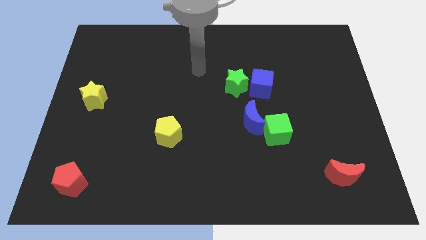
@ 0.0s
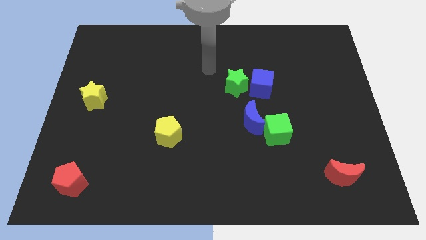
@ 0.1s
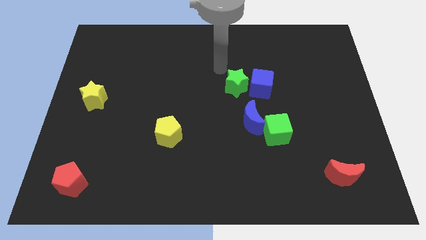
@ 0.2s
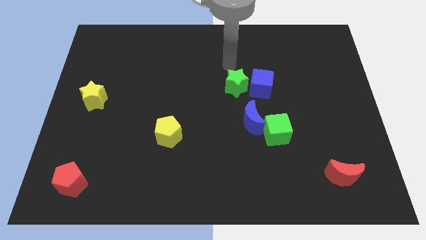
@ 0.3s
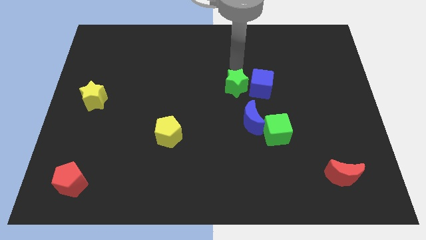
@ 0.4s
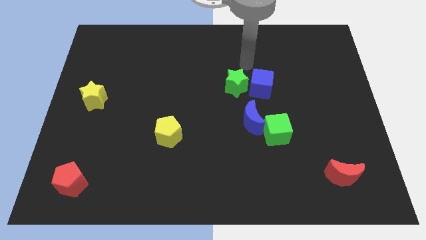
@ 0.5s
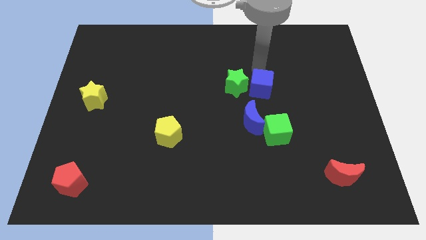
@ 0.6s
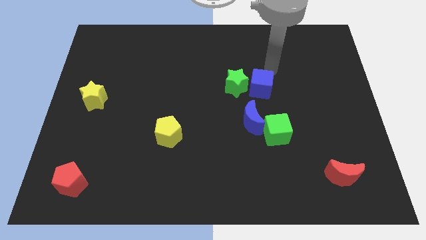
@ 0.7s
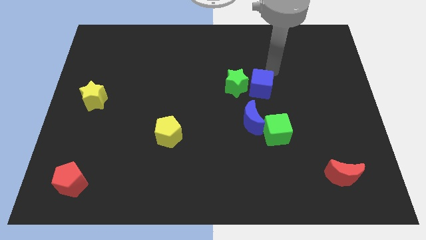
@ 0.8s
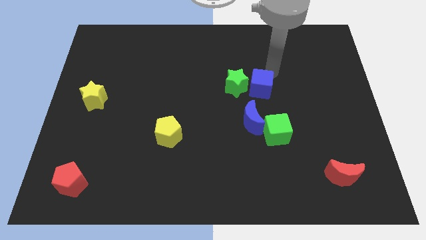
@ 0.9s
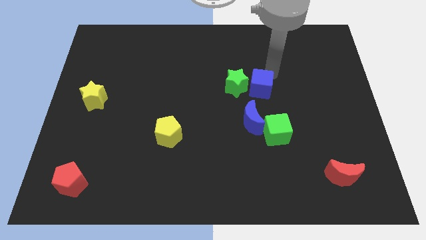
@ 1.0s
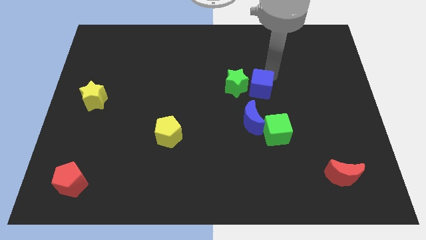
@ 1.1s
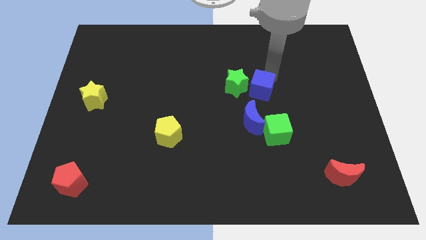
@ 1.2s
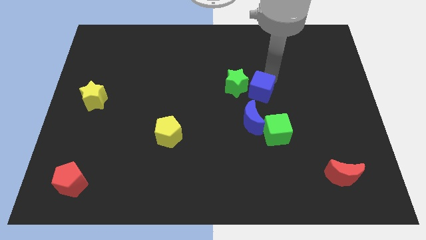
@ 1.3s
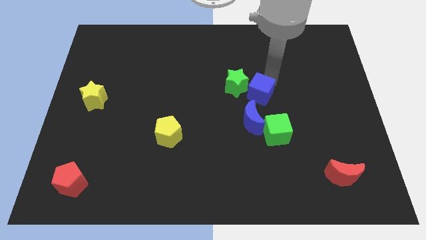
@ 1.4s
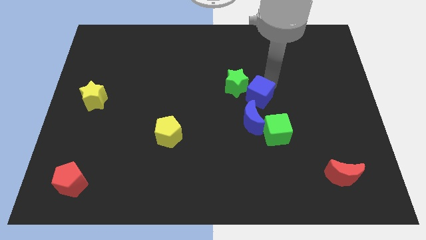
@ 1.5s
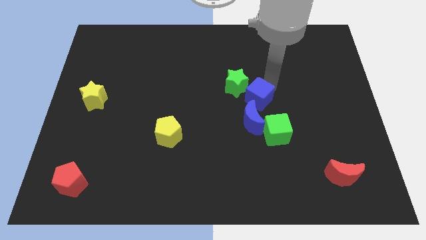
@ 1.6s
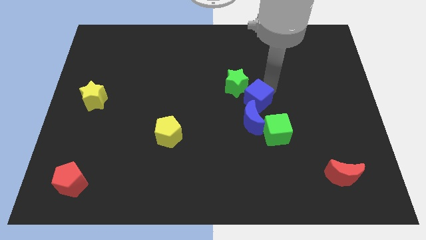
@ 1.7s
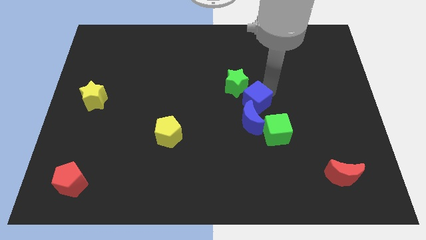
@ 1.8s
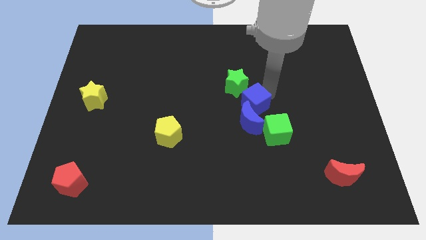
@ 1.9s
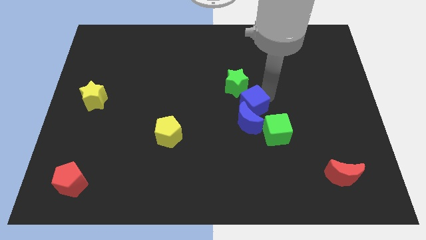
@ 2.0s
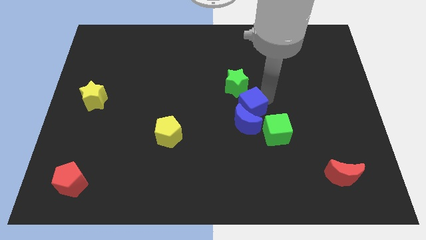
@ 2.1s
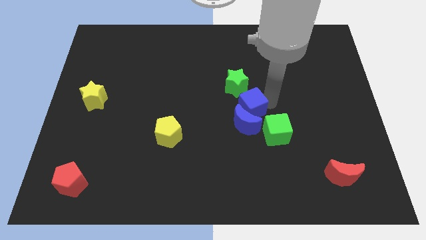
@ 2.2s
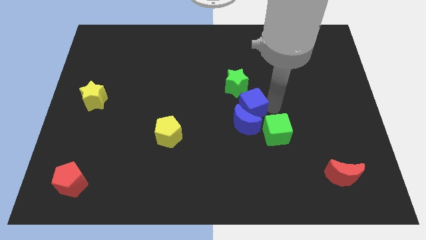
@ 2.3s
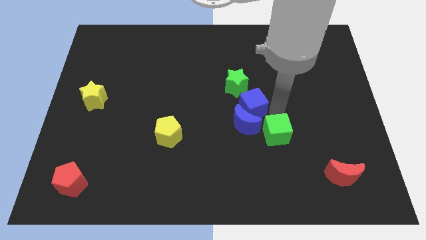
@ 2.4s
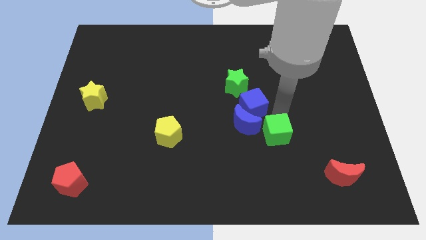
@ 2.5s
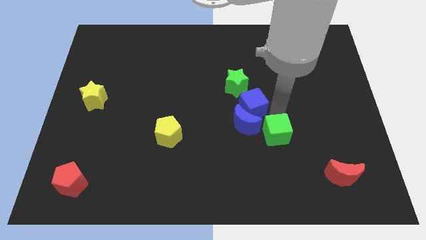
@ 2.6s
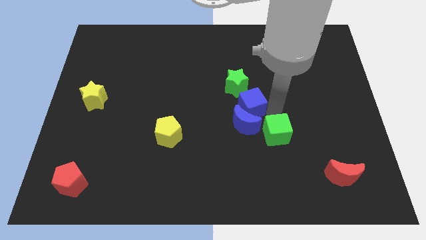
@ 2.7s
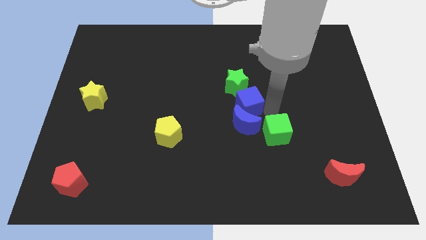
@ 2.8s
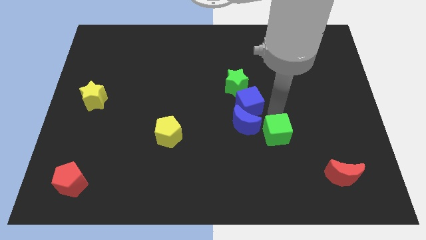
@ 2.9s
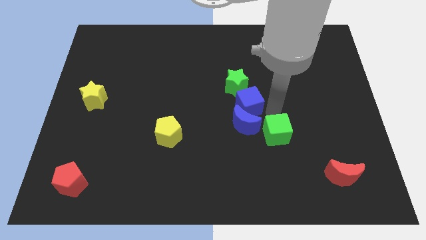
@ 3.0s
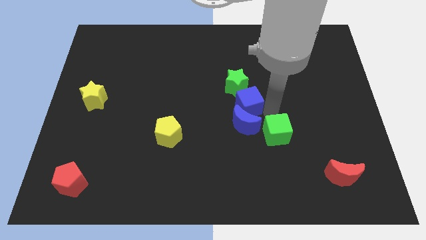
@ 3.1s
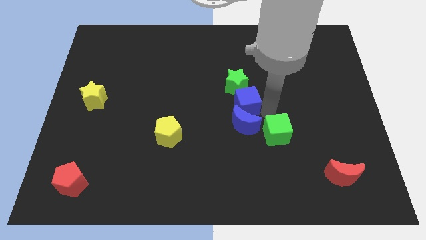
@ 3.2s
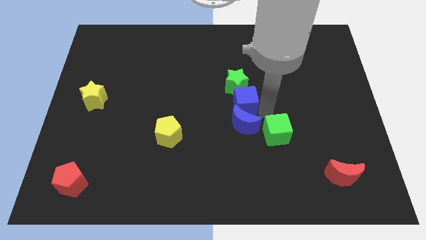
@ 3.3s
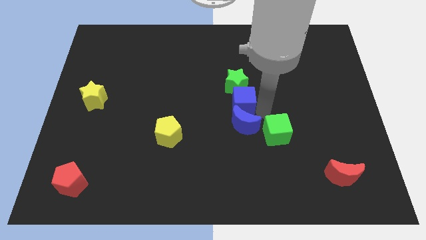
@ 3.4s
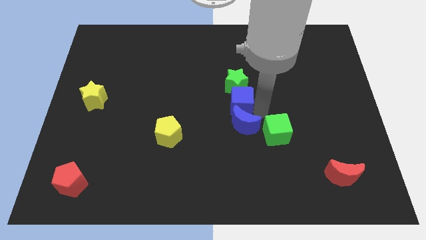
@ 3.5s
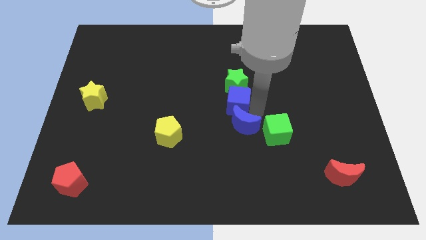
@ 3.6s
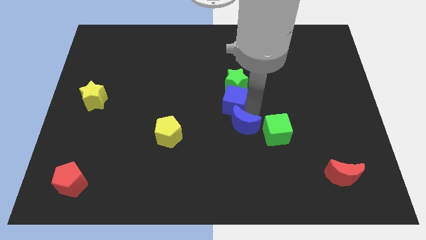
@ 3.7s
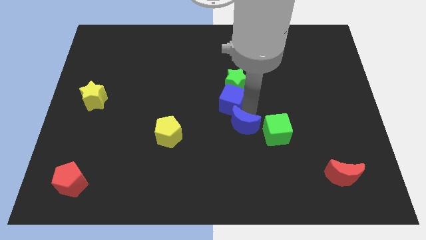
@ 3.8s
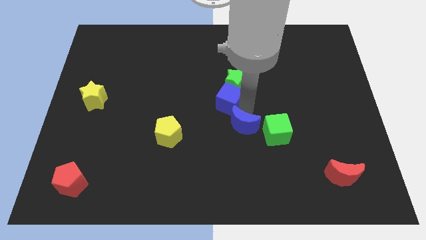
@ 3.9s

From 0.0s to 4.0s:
push the blue cube somewhat left

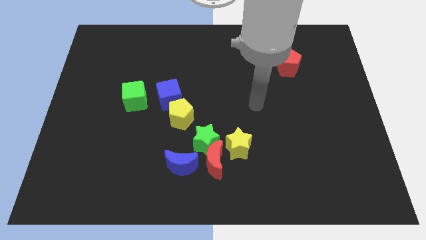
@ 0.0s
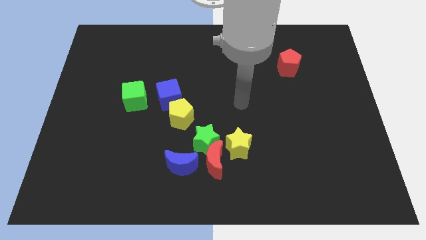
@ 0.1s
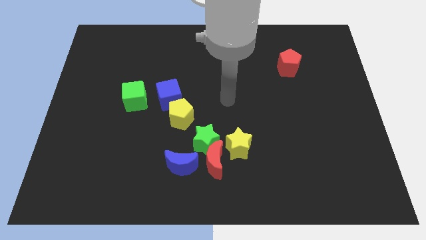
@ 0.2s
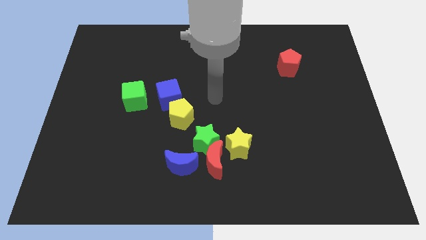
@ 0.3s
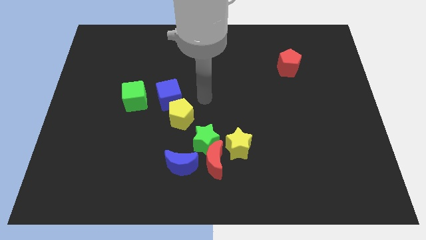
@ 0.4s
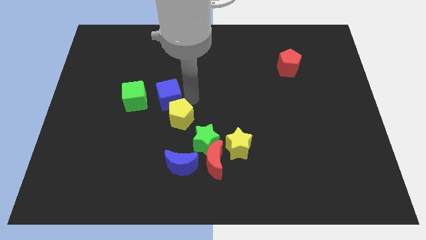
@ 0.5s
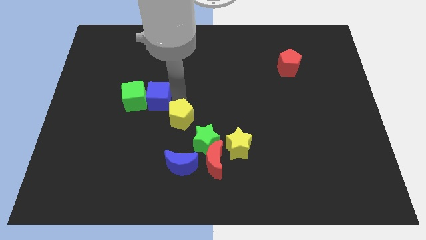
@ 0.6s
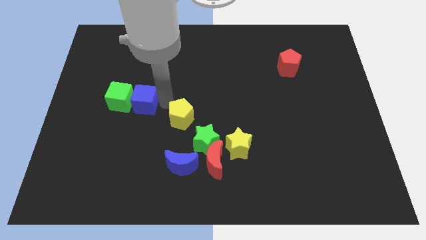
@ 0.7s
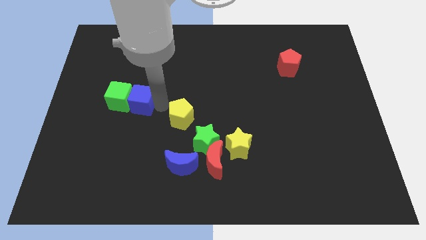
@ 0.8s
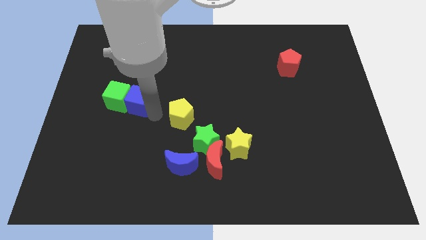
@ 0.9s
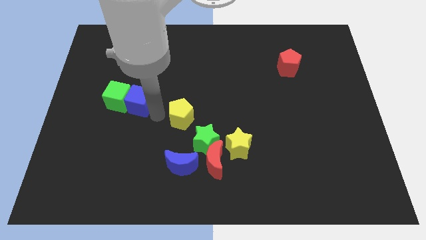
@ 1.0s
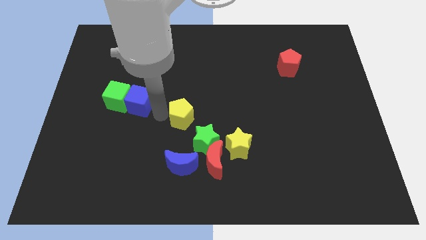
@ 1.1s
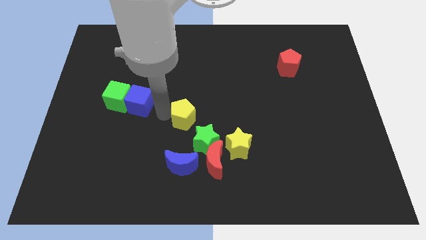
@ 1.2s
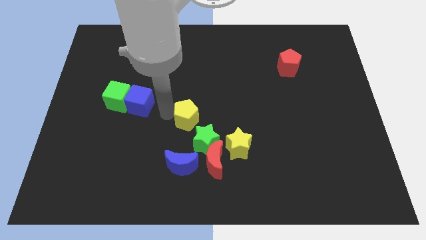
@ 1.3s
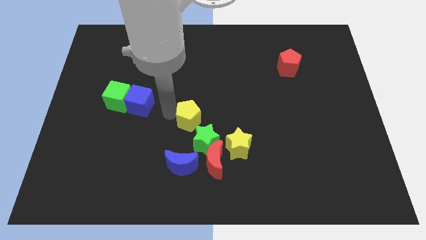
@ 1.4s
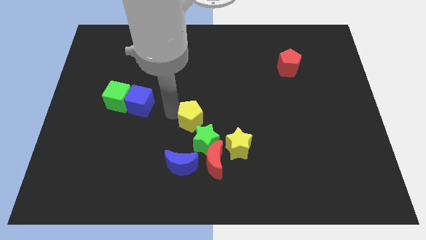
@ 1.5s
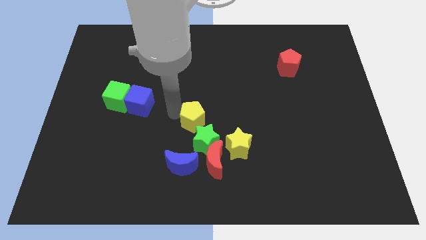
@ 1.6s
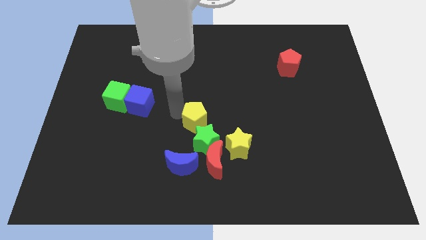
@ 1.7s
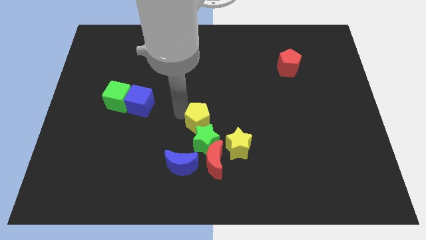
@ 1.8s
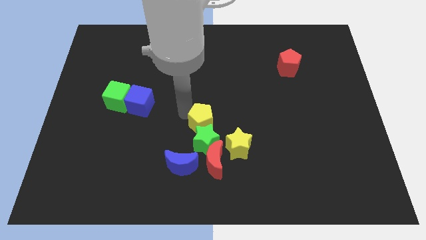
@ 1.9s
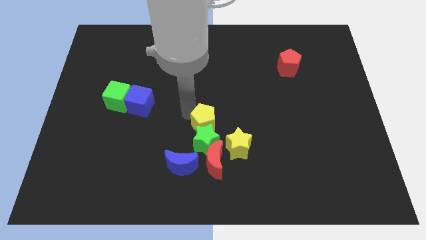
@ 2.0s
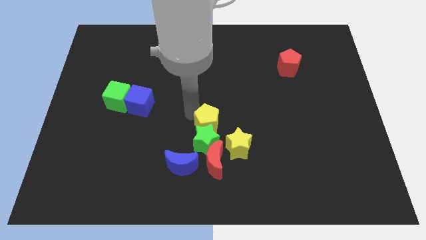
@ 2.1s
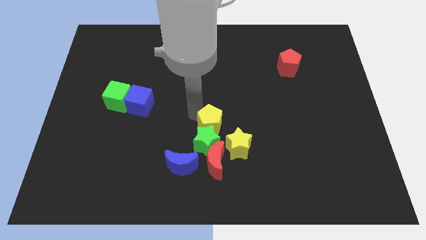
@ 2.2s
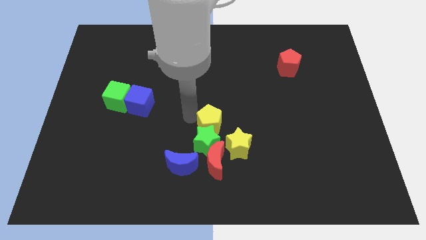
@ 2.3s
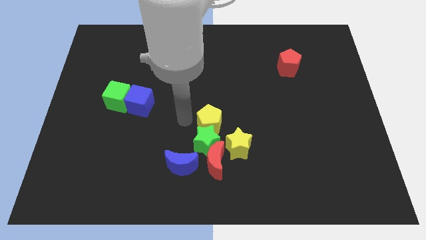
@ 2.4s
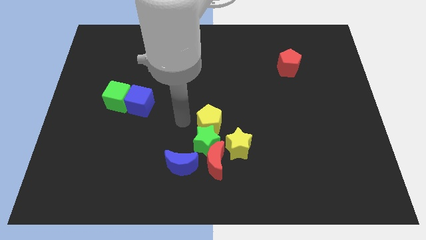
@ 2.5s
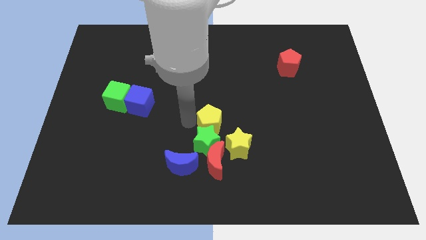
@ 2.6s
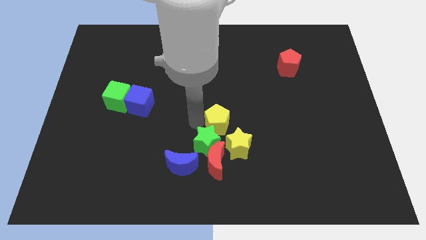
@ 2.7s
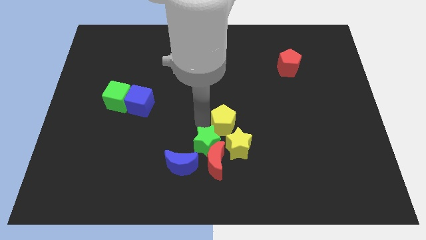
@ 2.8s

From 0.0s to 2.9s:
move the yellow pentagon a little down and to the right diagonally

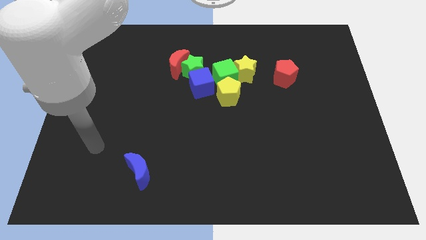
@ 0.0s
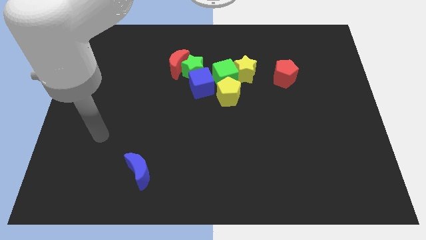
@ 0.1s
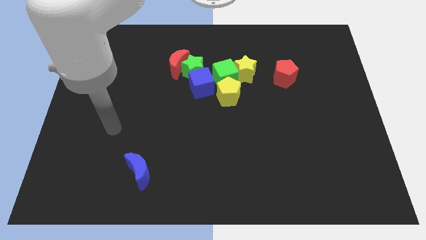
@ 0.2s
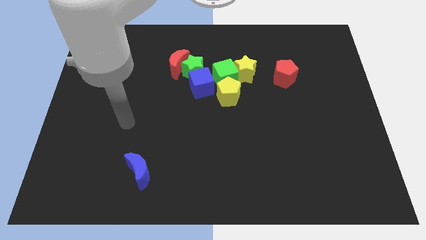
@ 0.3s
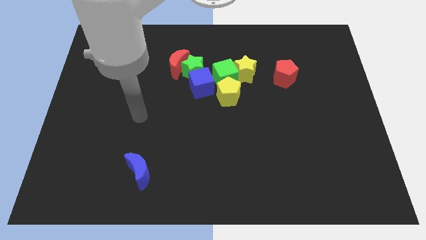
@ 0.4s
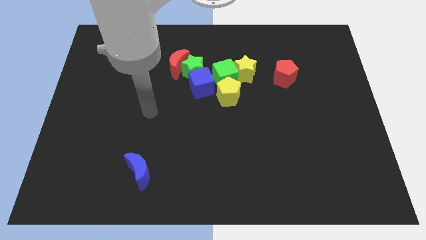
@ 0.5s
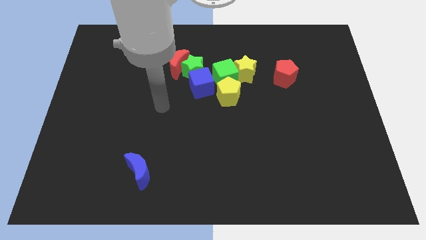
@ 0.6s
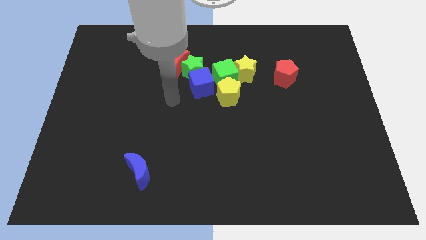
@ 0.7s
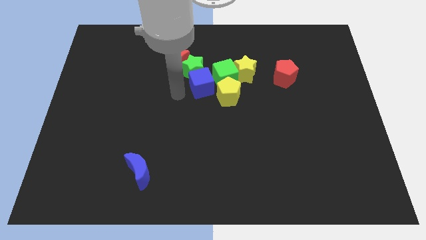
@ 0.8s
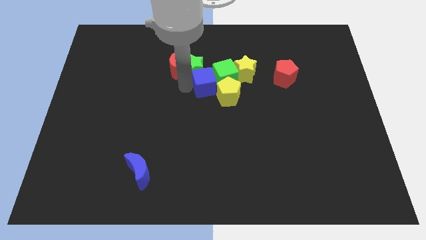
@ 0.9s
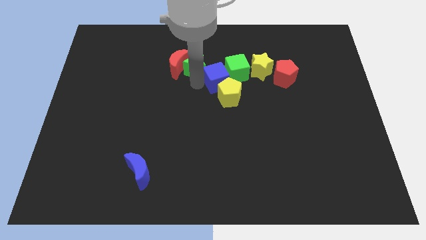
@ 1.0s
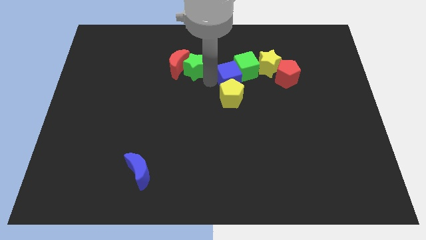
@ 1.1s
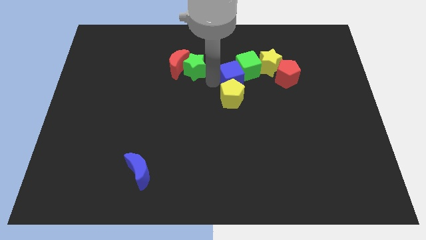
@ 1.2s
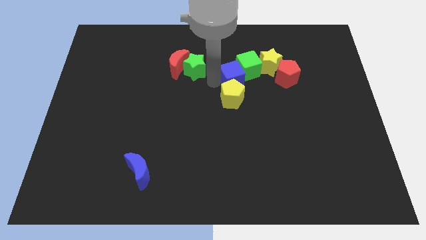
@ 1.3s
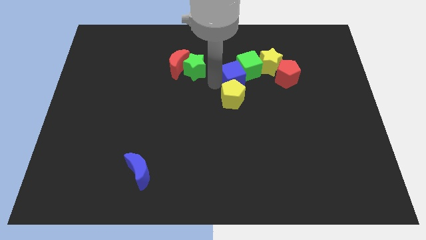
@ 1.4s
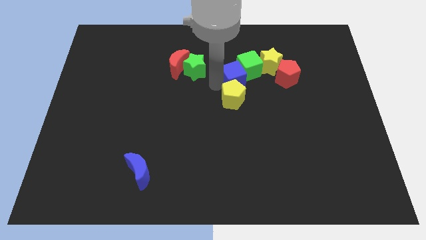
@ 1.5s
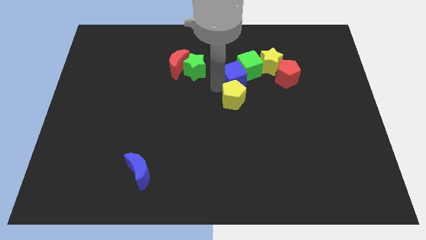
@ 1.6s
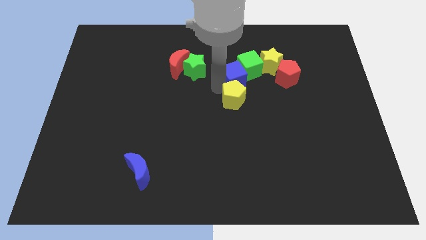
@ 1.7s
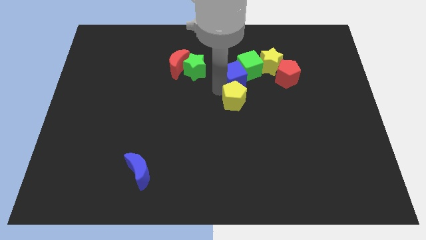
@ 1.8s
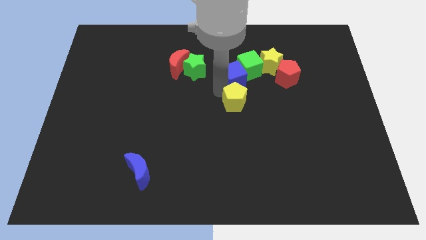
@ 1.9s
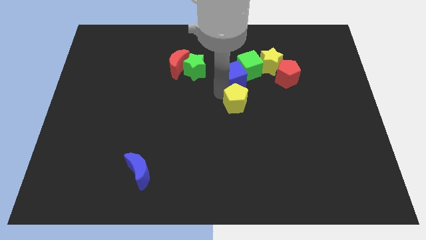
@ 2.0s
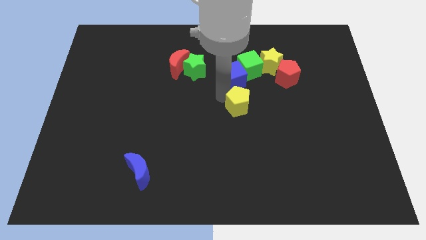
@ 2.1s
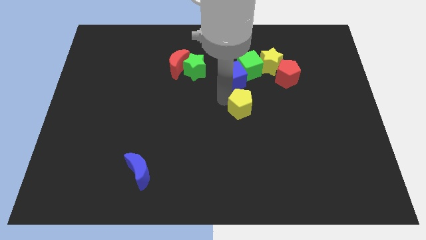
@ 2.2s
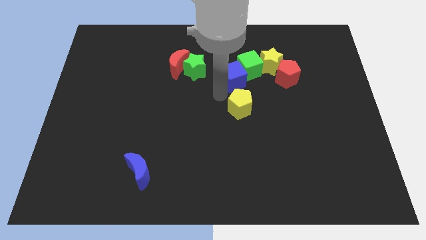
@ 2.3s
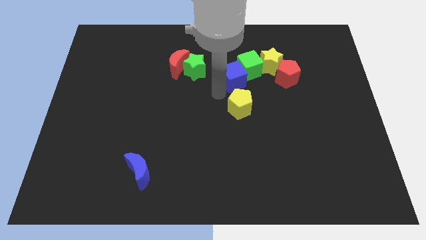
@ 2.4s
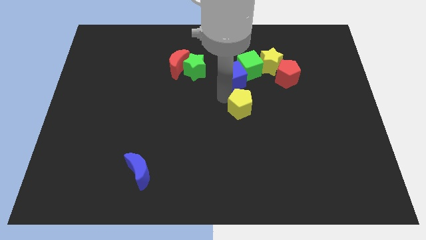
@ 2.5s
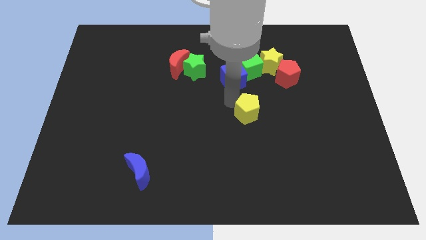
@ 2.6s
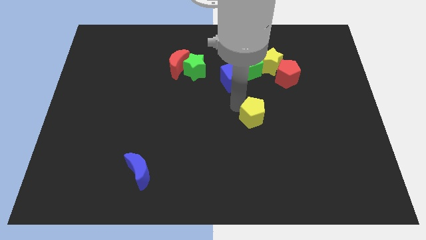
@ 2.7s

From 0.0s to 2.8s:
move the yellow pentagon a little bit down and right diagonally
